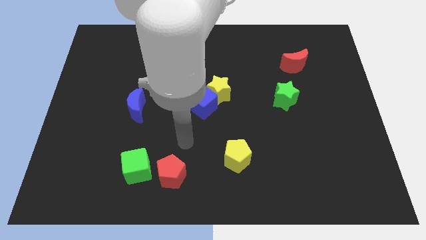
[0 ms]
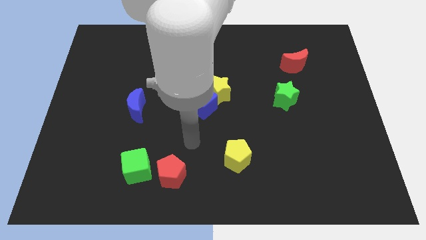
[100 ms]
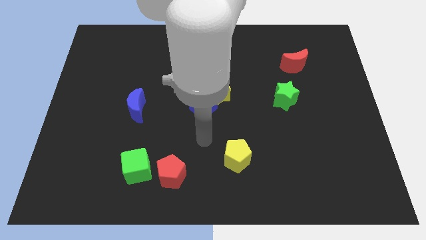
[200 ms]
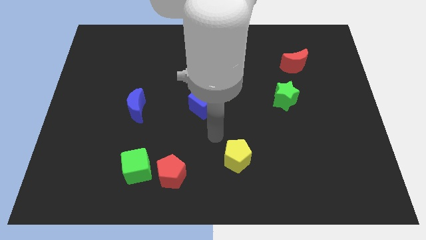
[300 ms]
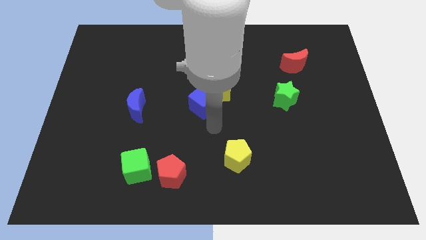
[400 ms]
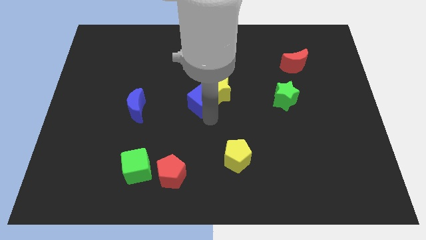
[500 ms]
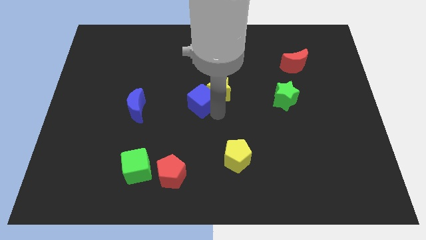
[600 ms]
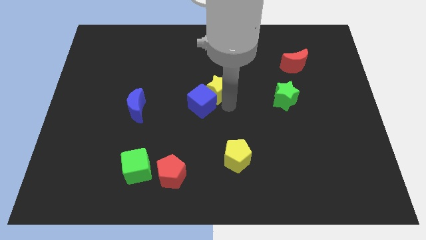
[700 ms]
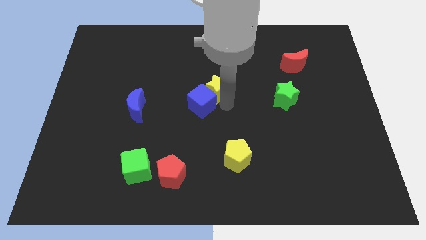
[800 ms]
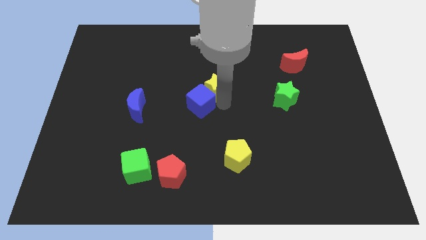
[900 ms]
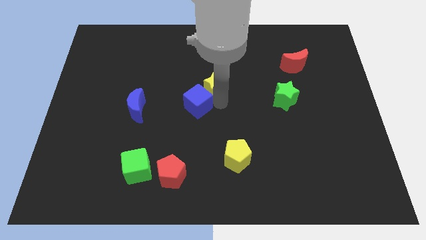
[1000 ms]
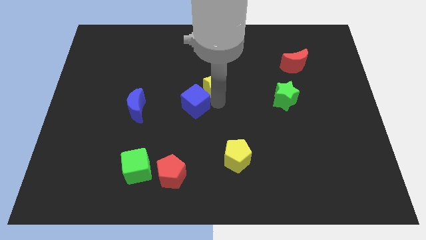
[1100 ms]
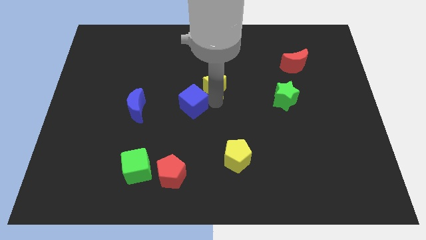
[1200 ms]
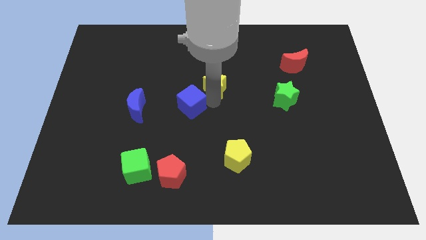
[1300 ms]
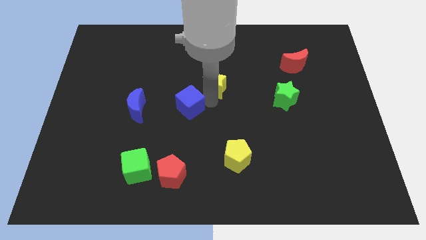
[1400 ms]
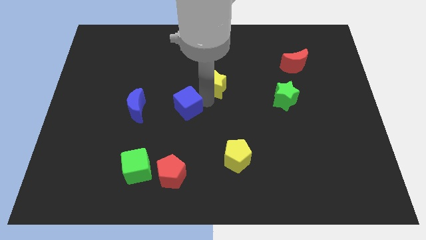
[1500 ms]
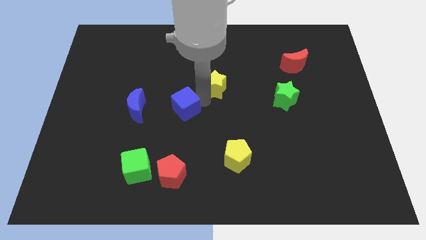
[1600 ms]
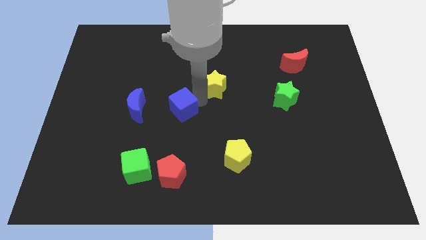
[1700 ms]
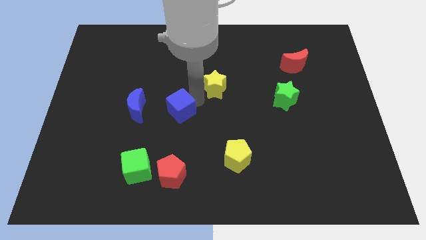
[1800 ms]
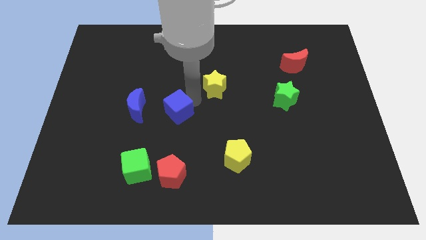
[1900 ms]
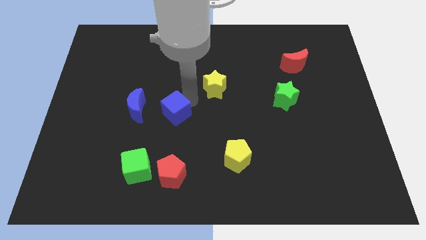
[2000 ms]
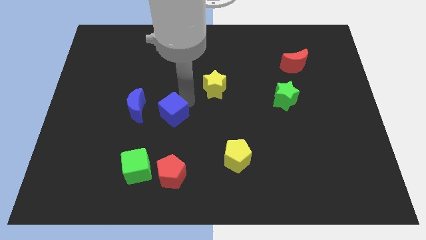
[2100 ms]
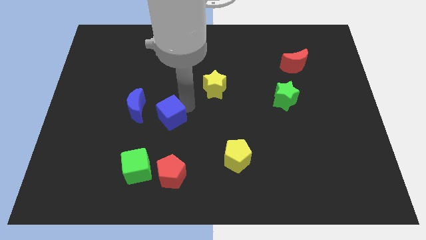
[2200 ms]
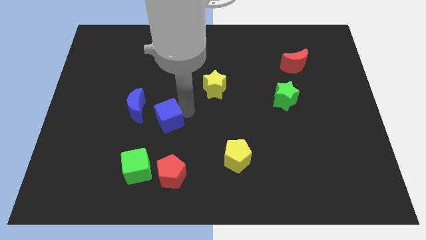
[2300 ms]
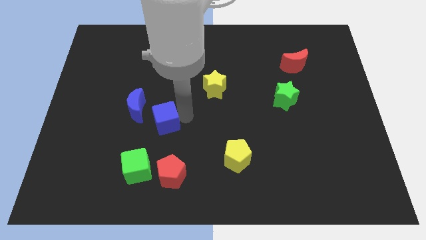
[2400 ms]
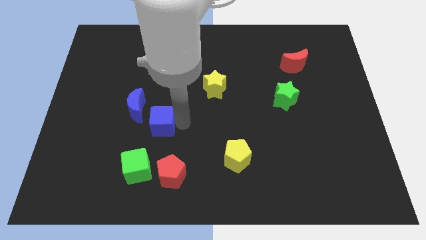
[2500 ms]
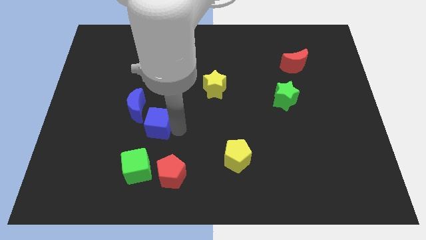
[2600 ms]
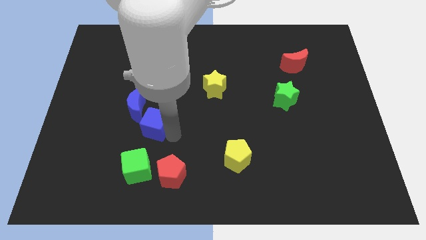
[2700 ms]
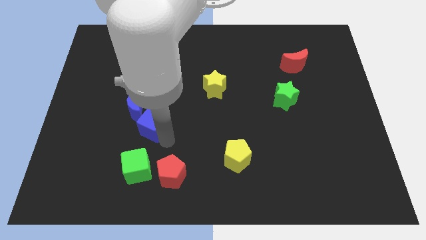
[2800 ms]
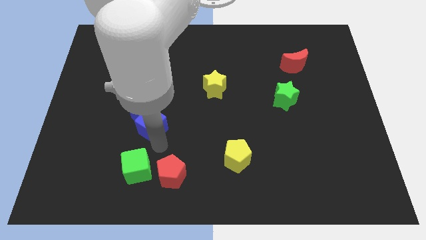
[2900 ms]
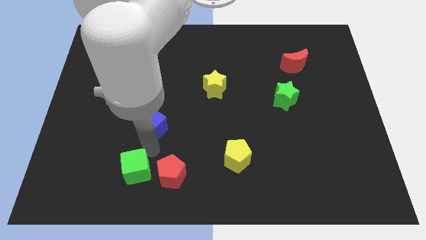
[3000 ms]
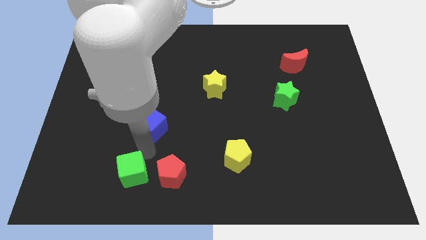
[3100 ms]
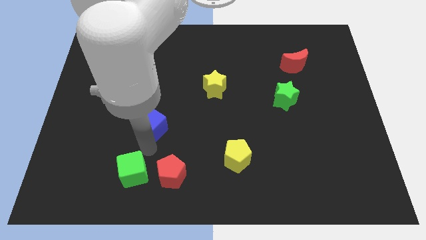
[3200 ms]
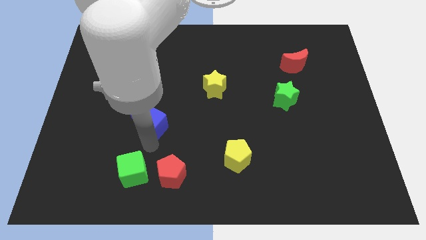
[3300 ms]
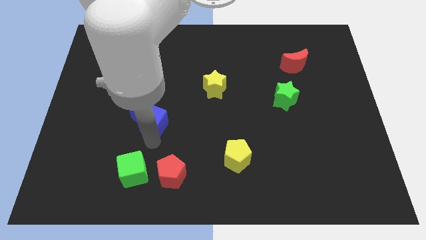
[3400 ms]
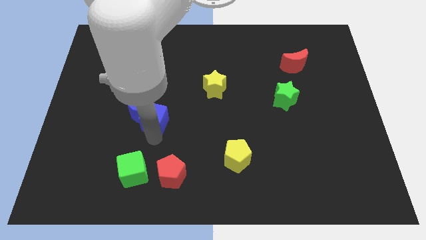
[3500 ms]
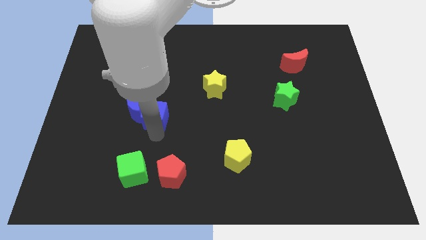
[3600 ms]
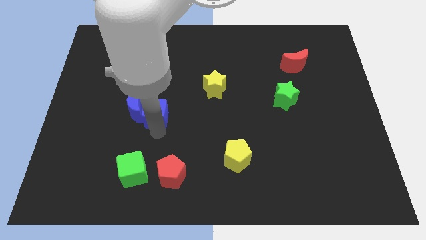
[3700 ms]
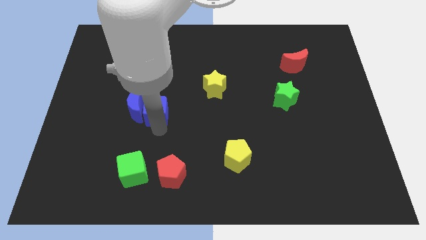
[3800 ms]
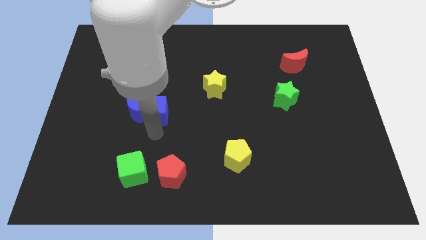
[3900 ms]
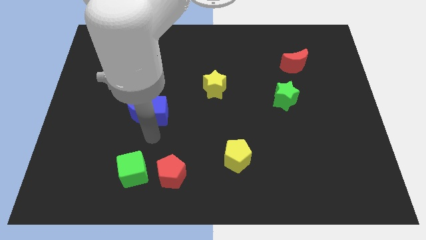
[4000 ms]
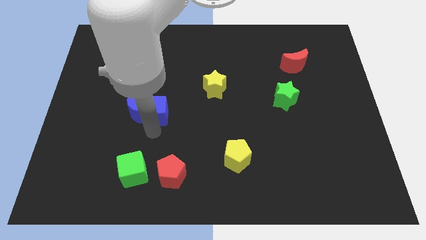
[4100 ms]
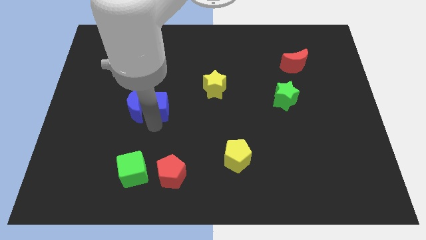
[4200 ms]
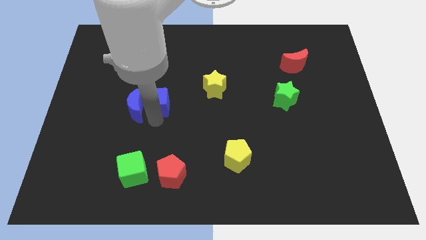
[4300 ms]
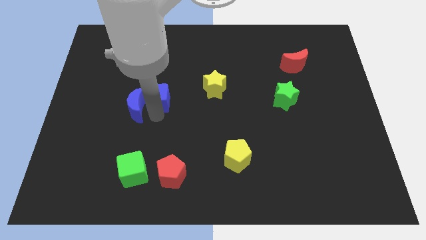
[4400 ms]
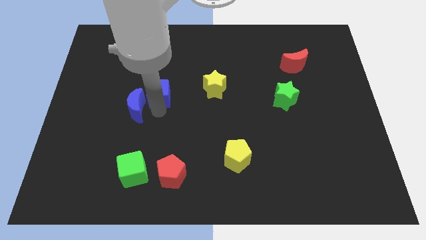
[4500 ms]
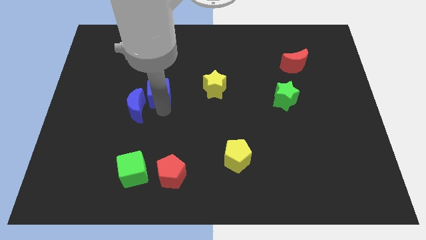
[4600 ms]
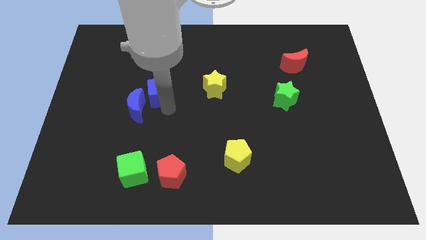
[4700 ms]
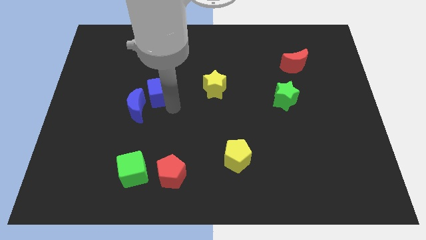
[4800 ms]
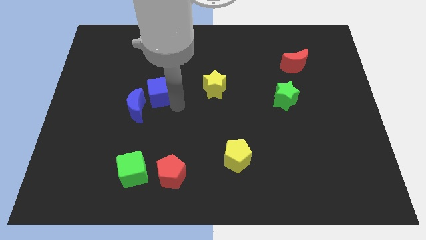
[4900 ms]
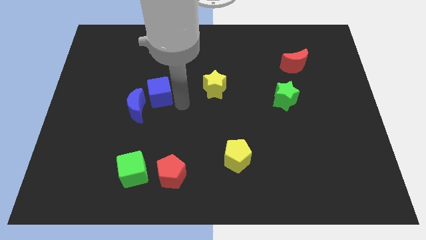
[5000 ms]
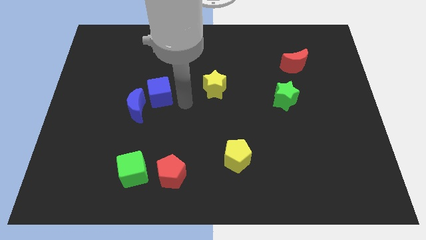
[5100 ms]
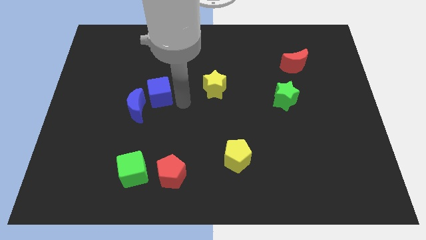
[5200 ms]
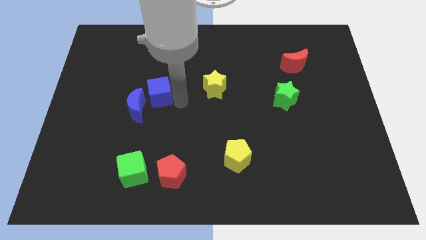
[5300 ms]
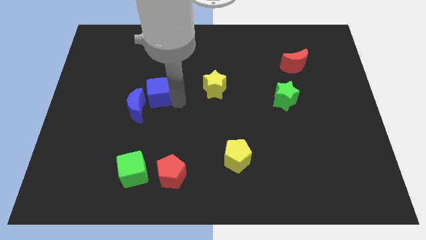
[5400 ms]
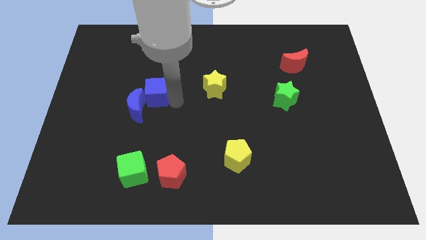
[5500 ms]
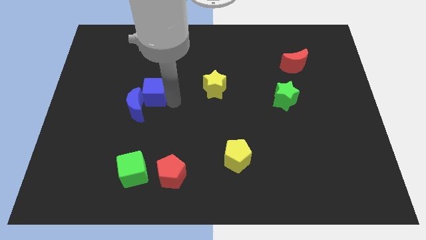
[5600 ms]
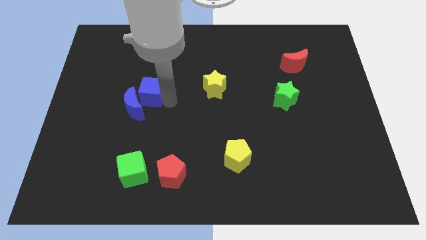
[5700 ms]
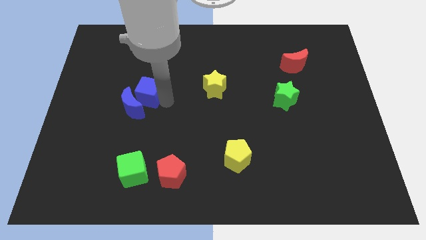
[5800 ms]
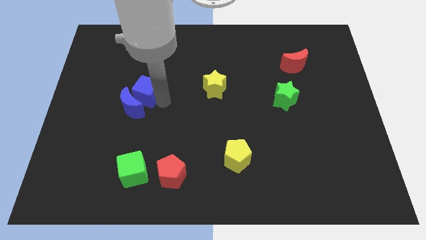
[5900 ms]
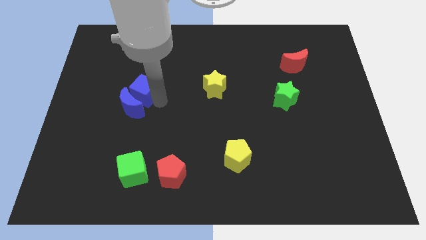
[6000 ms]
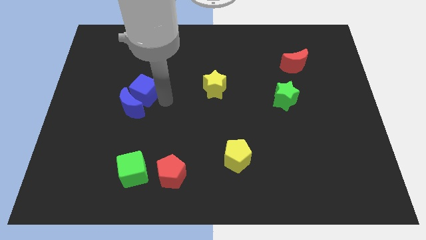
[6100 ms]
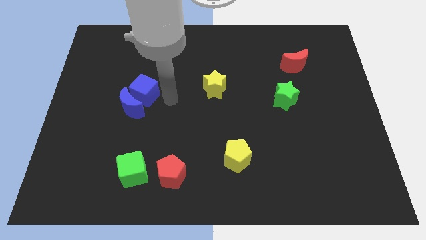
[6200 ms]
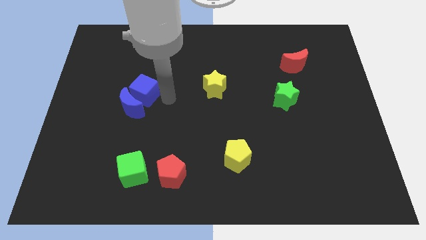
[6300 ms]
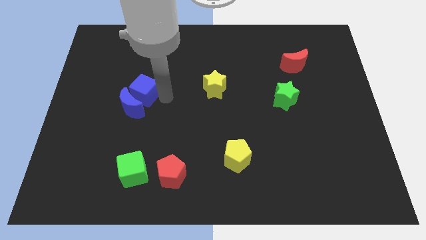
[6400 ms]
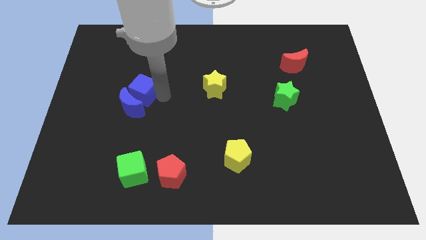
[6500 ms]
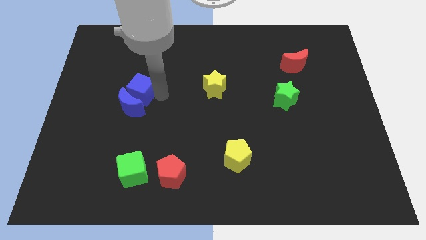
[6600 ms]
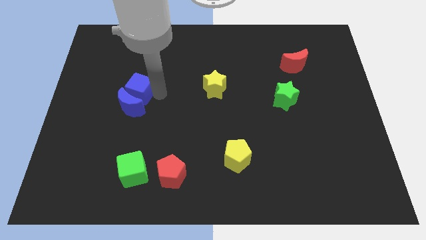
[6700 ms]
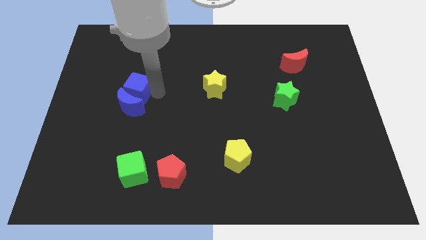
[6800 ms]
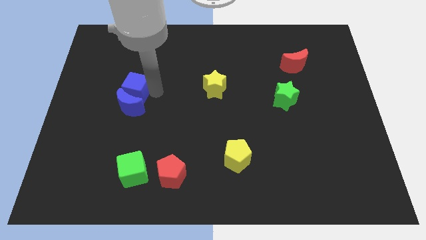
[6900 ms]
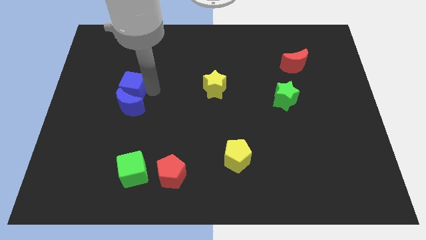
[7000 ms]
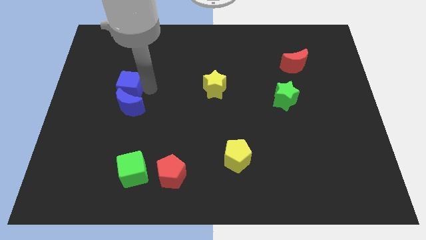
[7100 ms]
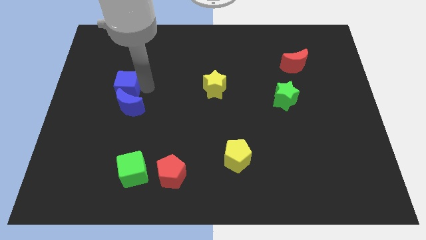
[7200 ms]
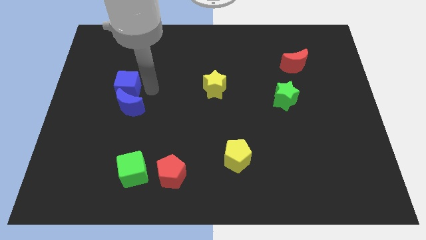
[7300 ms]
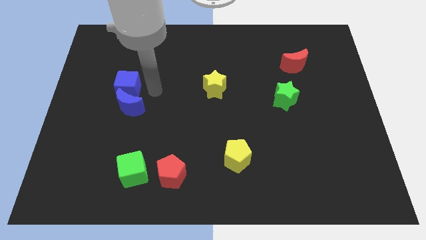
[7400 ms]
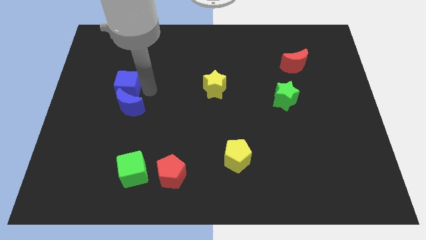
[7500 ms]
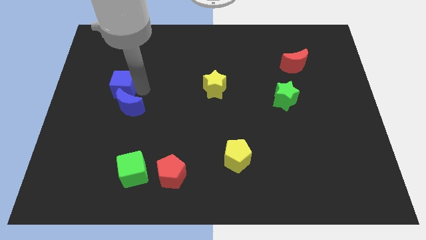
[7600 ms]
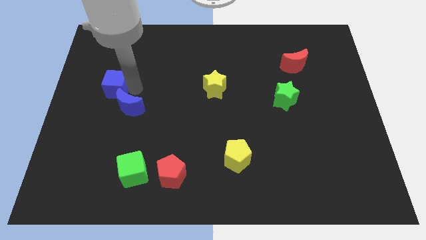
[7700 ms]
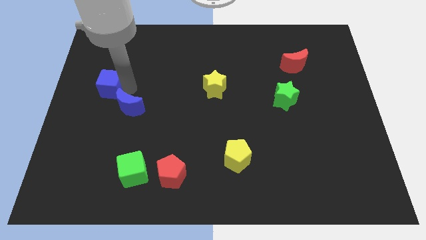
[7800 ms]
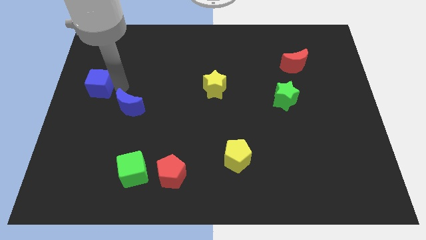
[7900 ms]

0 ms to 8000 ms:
slide the blue cube to the left side of the board
